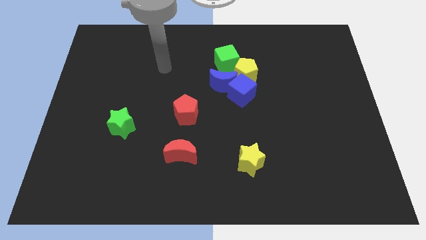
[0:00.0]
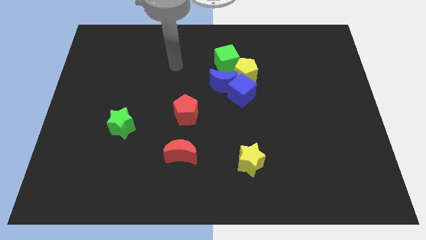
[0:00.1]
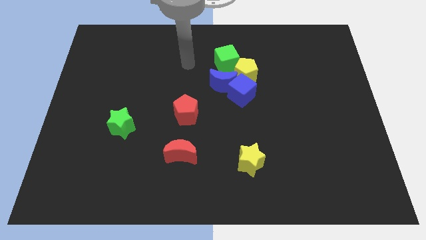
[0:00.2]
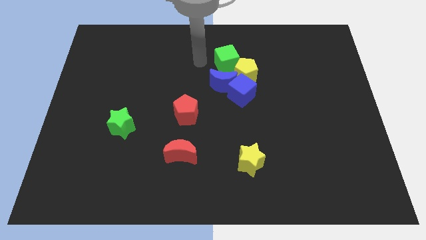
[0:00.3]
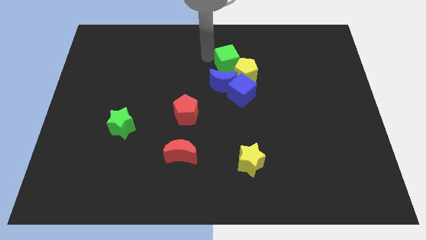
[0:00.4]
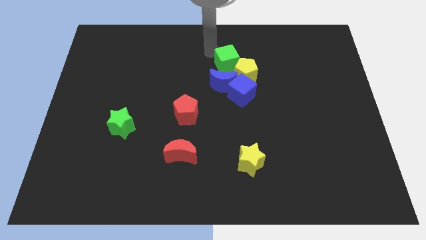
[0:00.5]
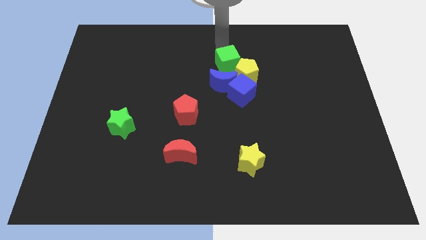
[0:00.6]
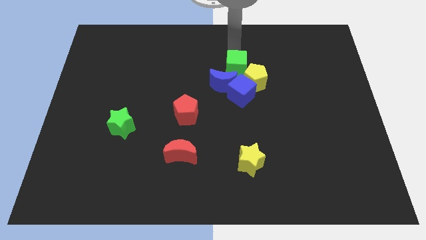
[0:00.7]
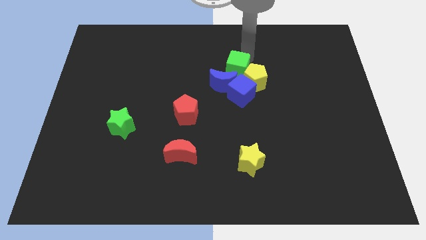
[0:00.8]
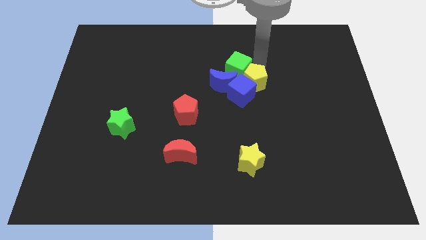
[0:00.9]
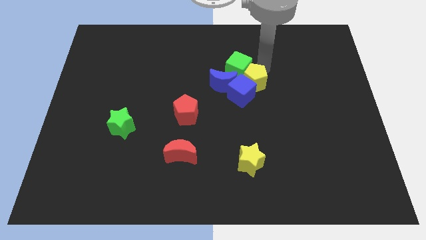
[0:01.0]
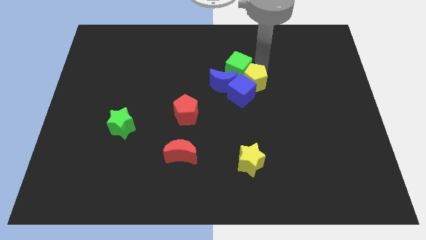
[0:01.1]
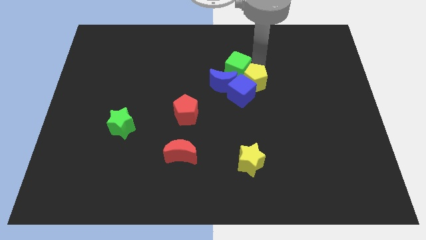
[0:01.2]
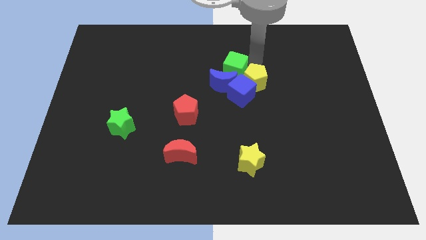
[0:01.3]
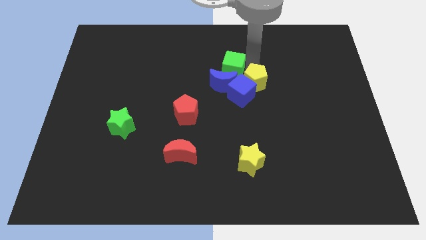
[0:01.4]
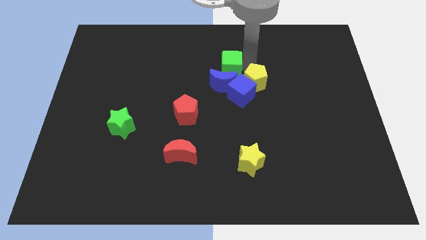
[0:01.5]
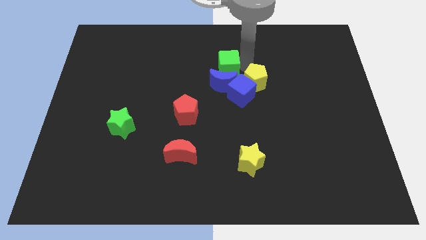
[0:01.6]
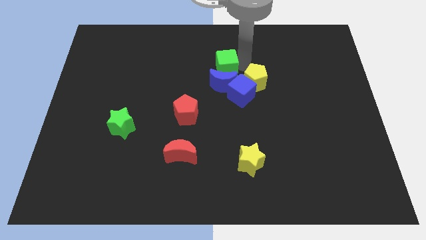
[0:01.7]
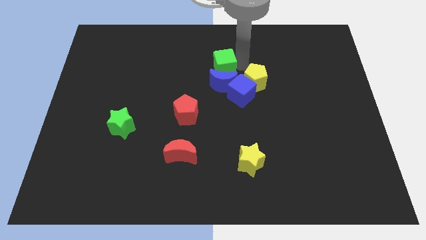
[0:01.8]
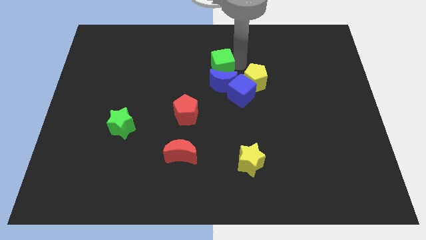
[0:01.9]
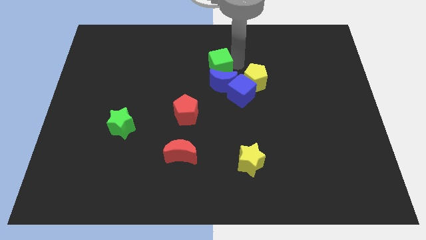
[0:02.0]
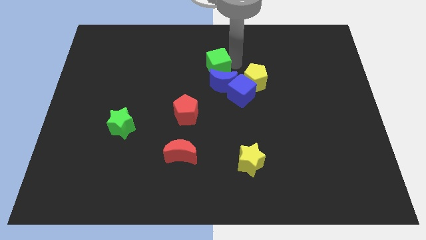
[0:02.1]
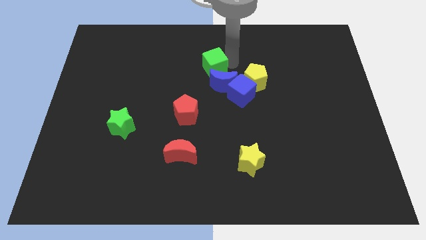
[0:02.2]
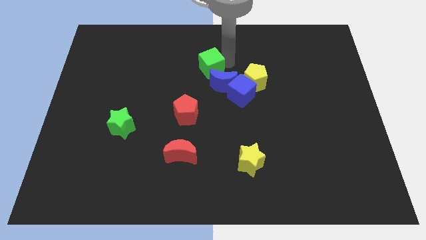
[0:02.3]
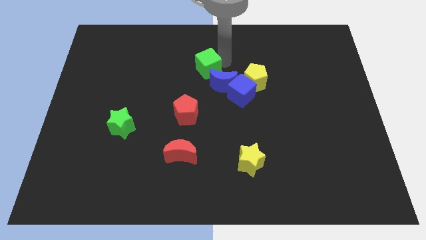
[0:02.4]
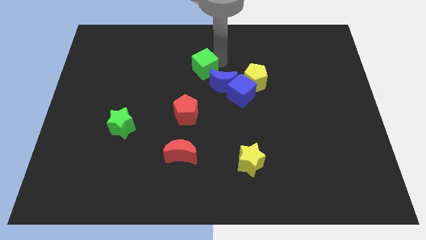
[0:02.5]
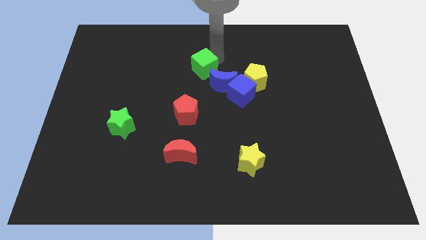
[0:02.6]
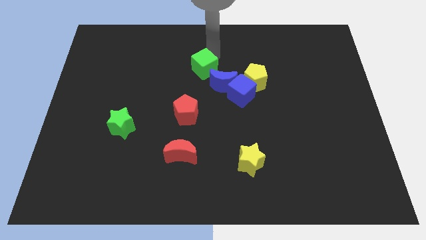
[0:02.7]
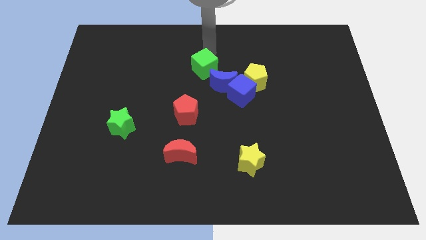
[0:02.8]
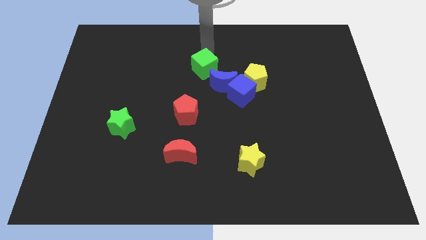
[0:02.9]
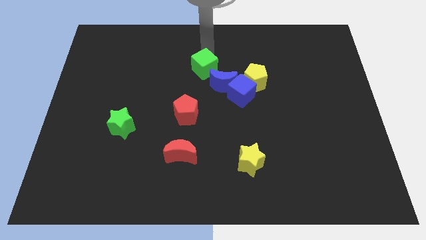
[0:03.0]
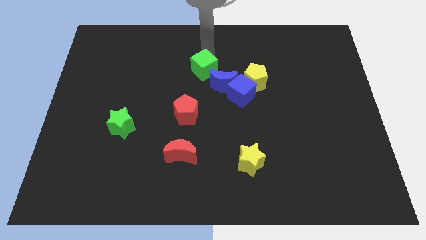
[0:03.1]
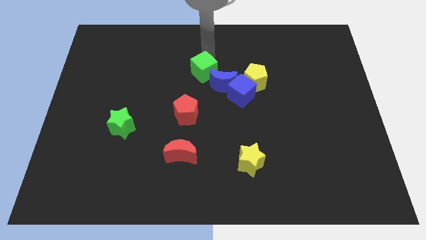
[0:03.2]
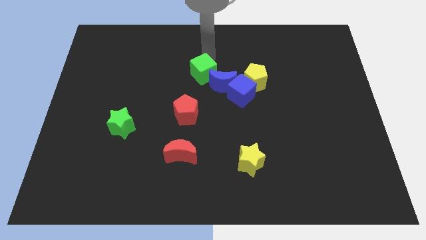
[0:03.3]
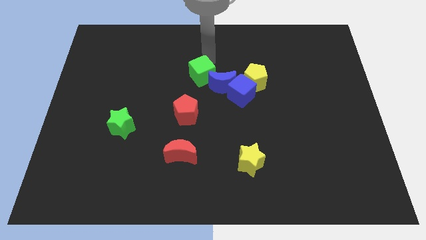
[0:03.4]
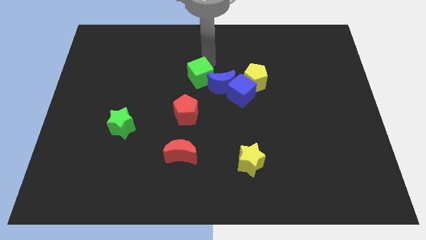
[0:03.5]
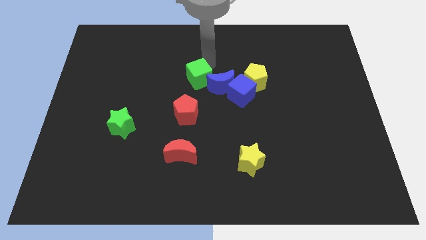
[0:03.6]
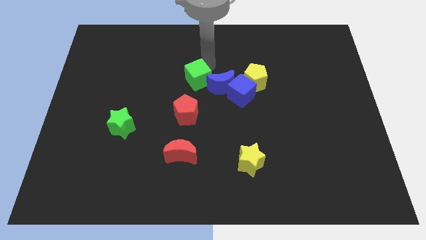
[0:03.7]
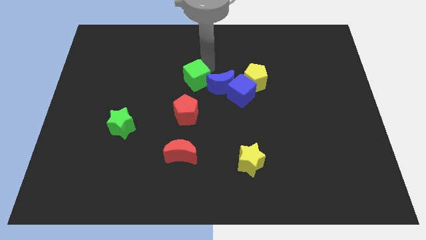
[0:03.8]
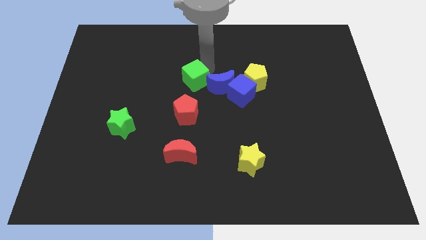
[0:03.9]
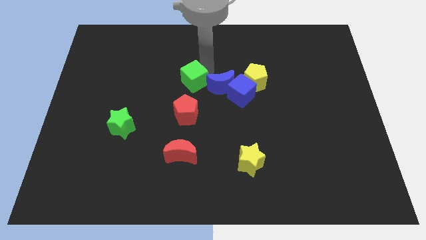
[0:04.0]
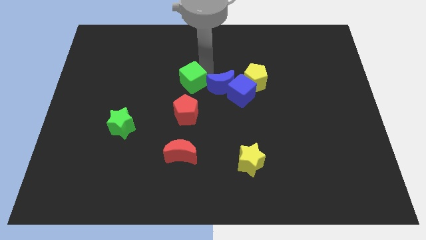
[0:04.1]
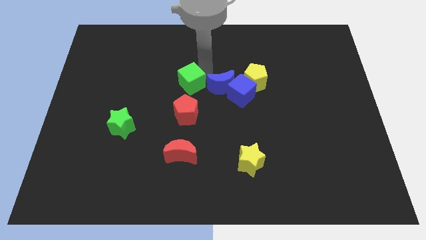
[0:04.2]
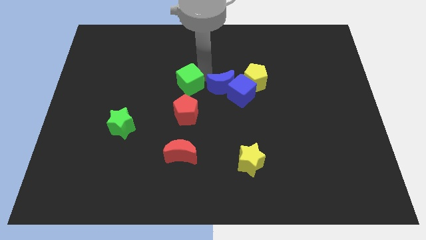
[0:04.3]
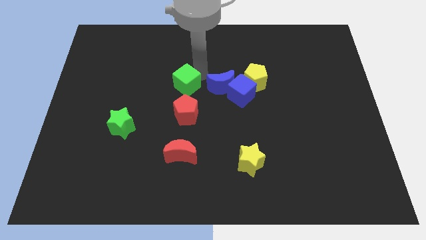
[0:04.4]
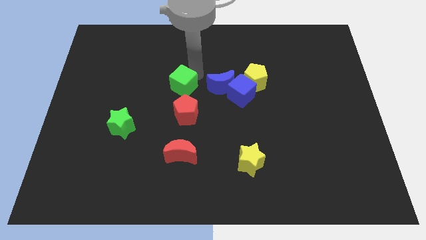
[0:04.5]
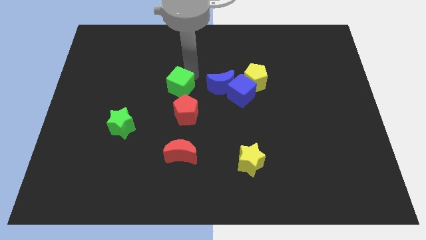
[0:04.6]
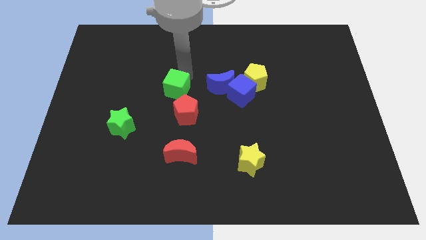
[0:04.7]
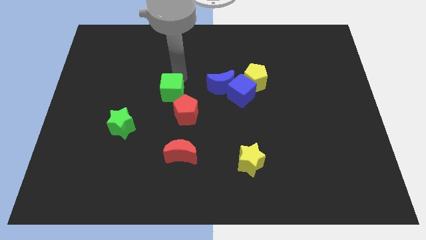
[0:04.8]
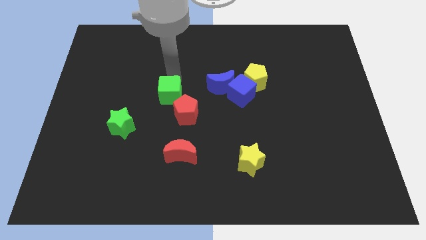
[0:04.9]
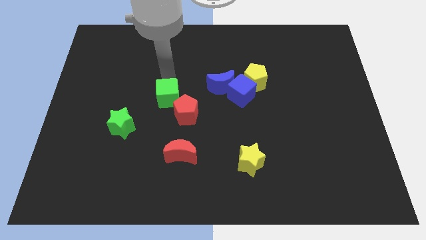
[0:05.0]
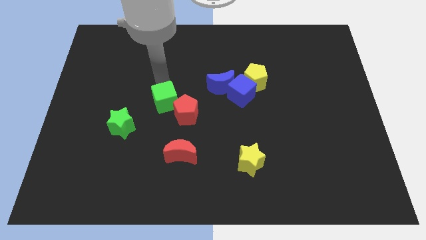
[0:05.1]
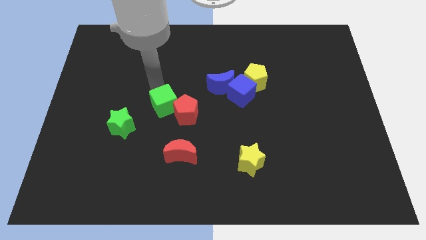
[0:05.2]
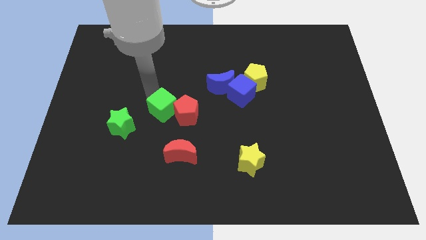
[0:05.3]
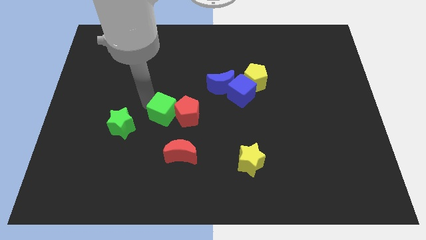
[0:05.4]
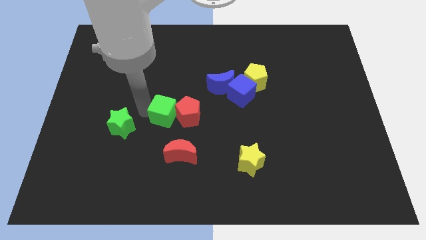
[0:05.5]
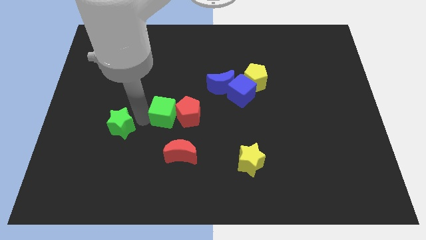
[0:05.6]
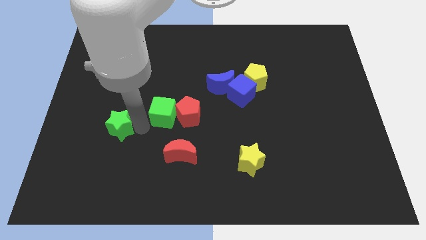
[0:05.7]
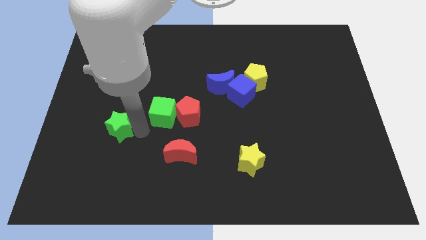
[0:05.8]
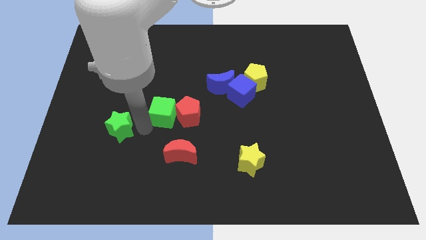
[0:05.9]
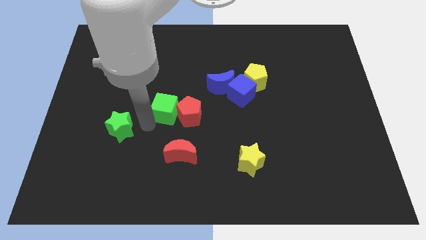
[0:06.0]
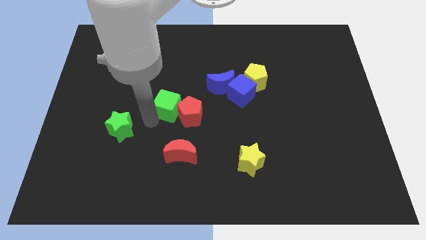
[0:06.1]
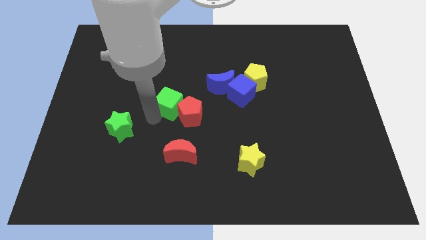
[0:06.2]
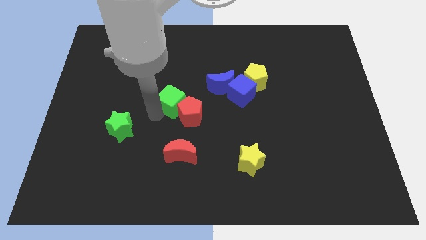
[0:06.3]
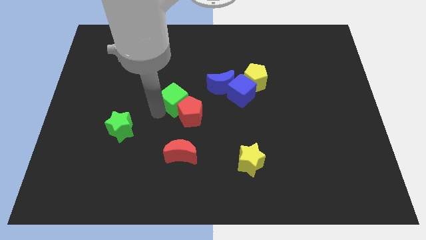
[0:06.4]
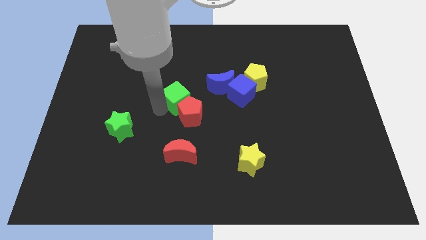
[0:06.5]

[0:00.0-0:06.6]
move the green cube to the bottom left side of the blue moon

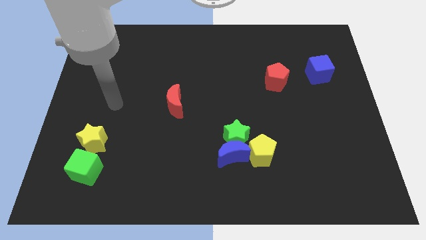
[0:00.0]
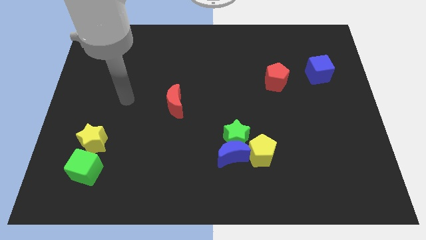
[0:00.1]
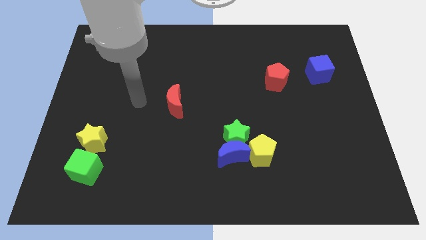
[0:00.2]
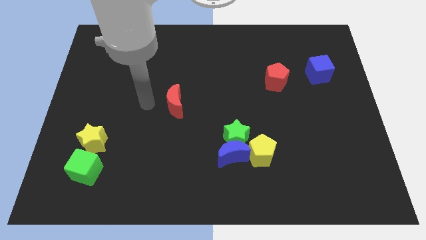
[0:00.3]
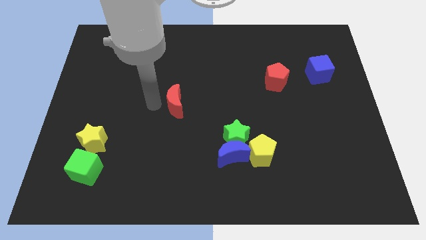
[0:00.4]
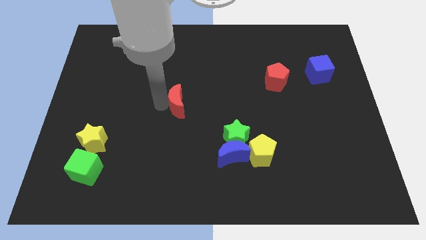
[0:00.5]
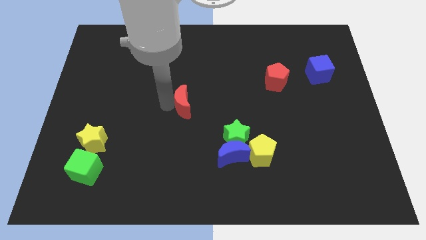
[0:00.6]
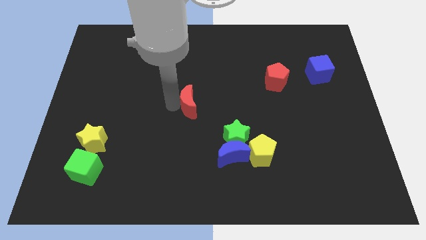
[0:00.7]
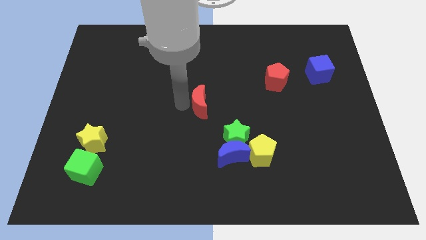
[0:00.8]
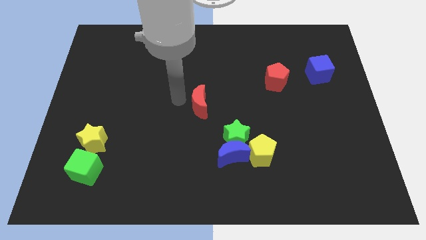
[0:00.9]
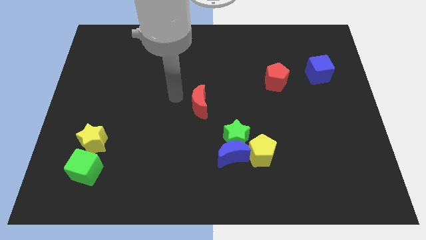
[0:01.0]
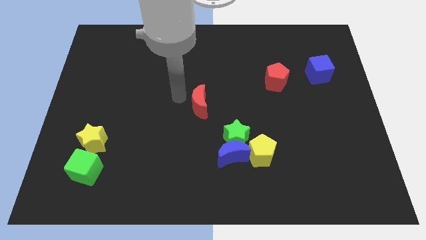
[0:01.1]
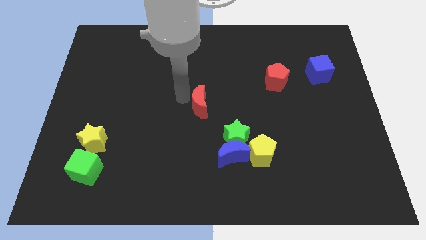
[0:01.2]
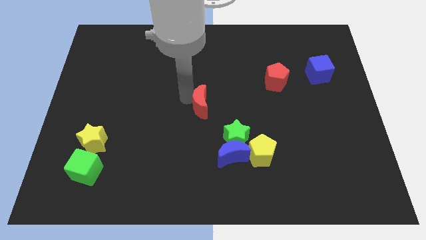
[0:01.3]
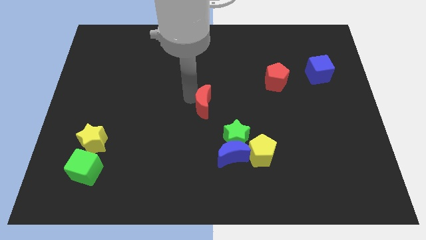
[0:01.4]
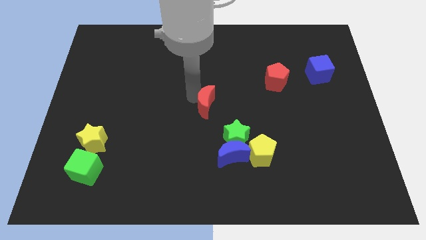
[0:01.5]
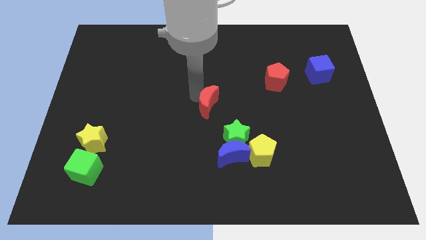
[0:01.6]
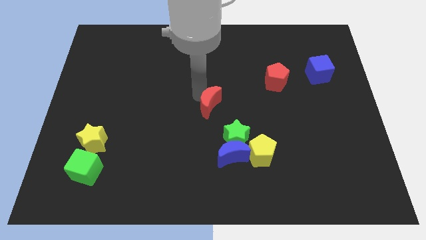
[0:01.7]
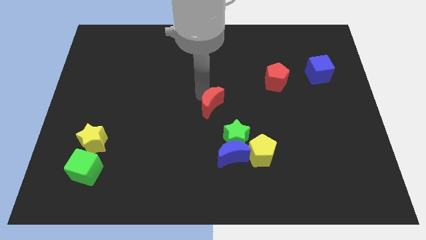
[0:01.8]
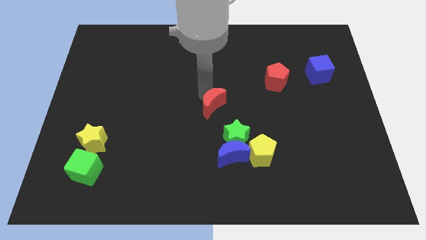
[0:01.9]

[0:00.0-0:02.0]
put the red moon above the blue moon
